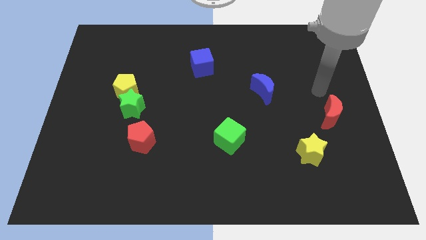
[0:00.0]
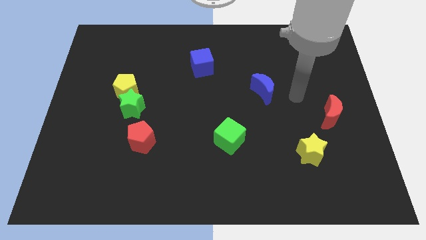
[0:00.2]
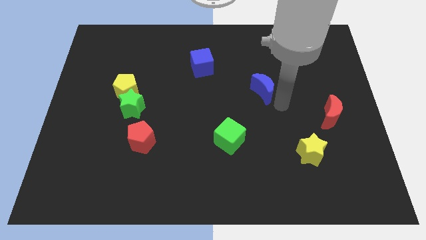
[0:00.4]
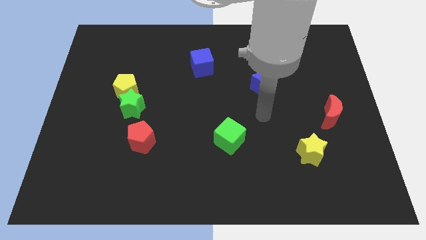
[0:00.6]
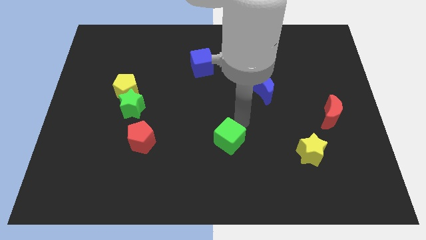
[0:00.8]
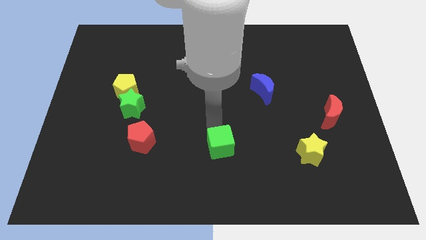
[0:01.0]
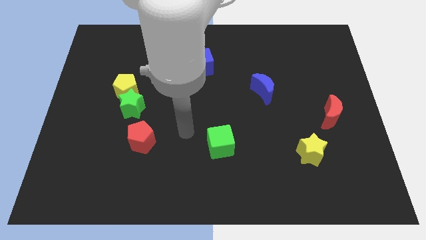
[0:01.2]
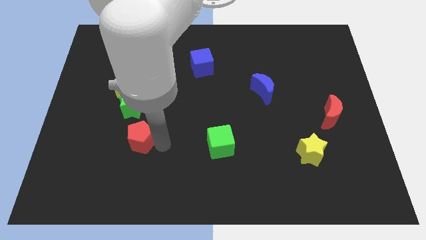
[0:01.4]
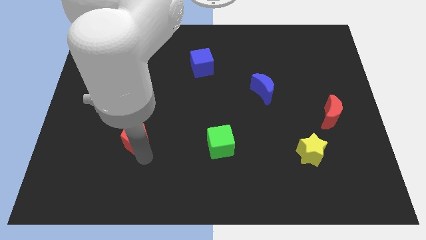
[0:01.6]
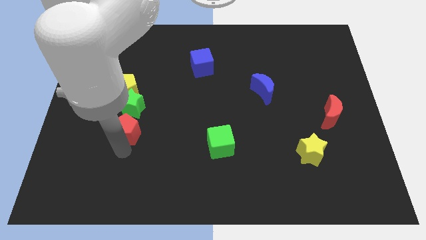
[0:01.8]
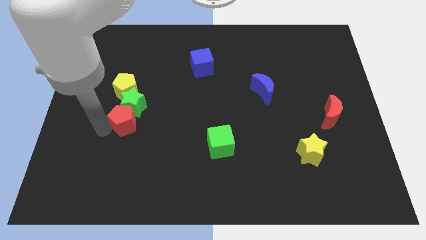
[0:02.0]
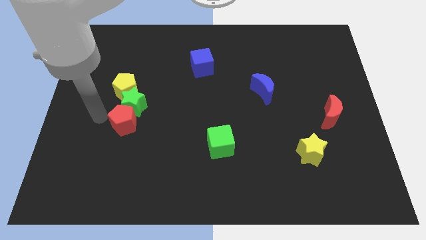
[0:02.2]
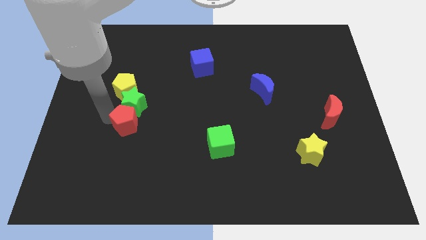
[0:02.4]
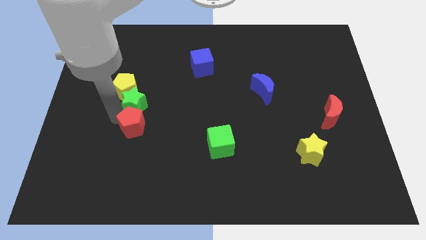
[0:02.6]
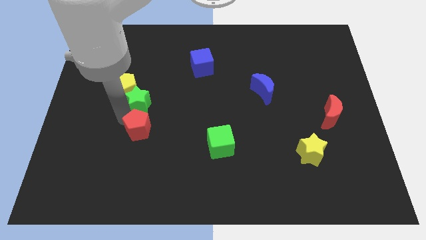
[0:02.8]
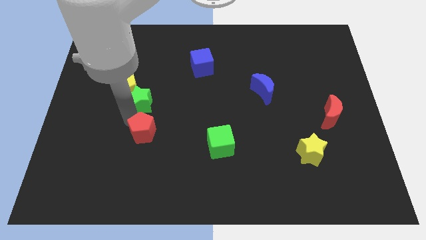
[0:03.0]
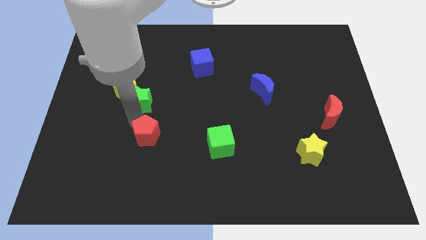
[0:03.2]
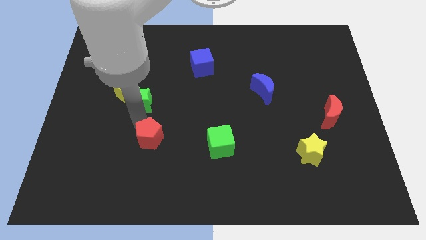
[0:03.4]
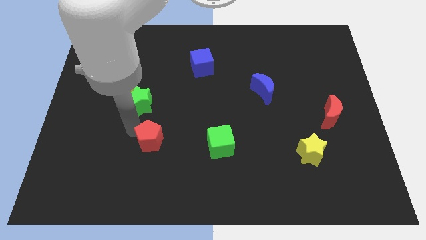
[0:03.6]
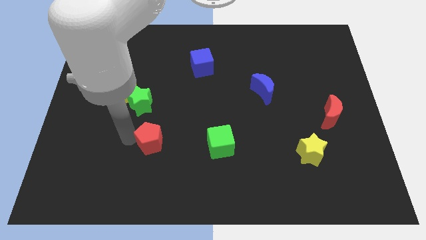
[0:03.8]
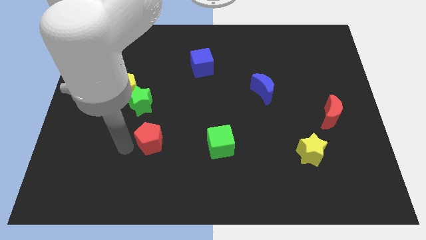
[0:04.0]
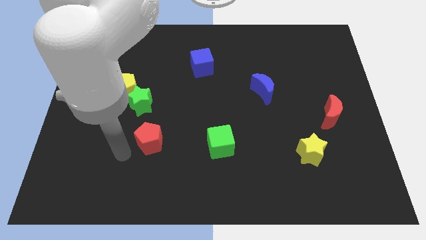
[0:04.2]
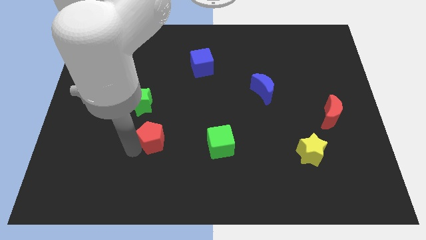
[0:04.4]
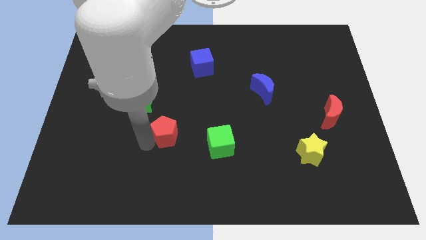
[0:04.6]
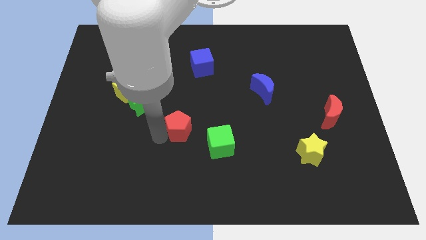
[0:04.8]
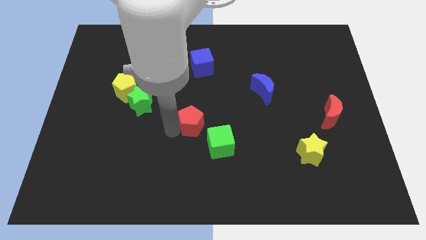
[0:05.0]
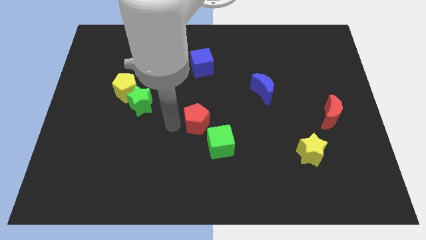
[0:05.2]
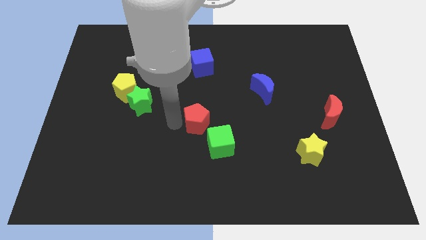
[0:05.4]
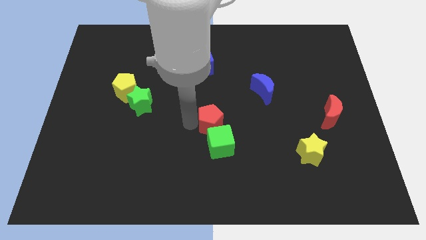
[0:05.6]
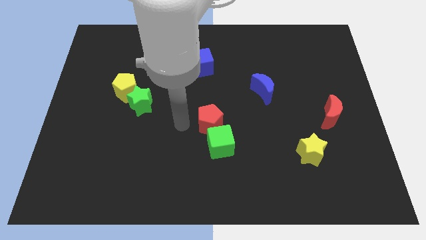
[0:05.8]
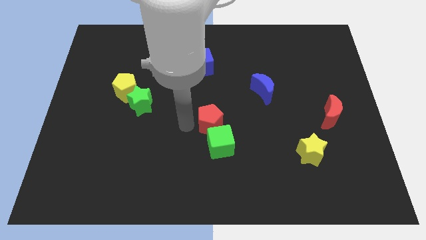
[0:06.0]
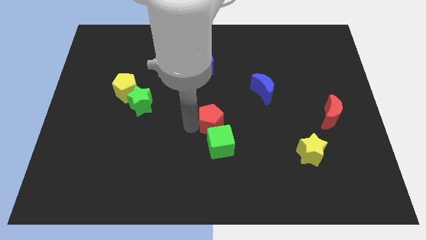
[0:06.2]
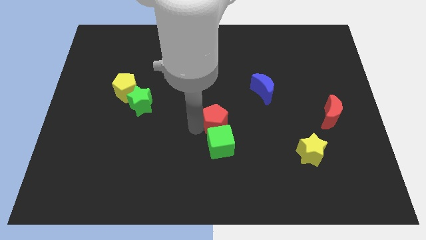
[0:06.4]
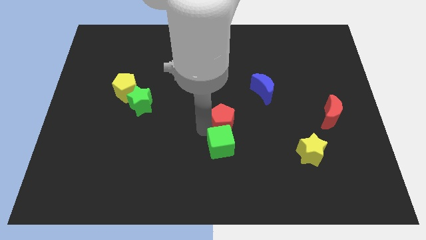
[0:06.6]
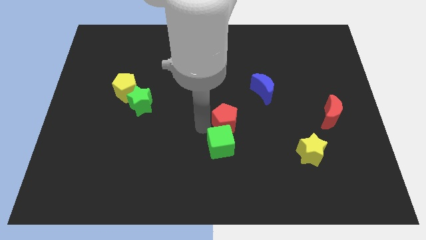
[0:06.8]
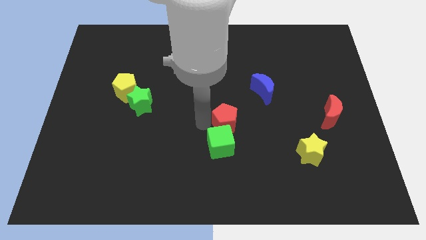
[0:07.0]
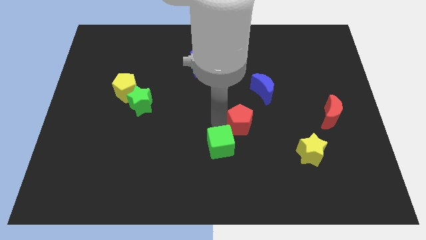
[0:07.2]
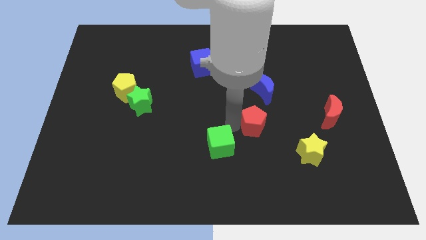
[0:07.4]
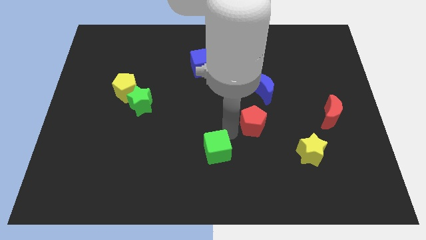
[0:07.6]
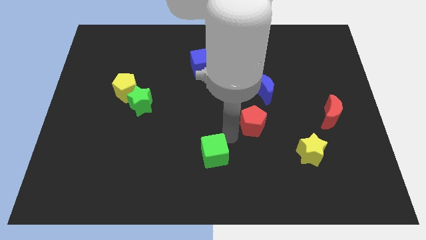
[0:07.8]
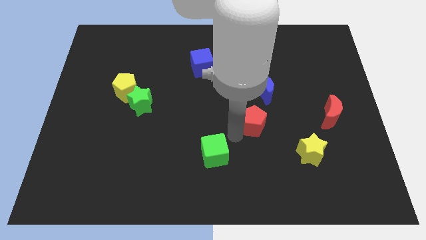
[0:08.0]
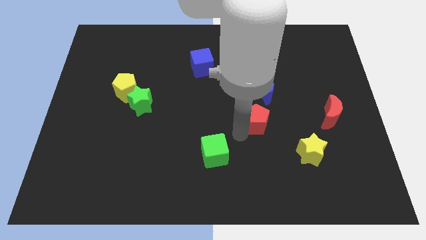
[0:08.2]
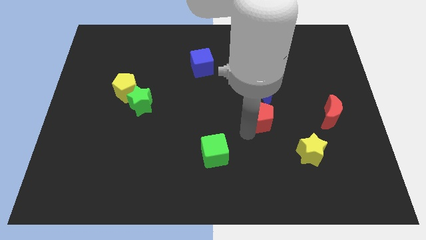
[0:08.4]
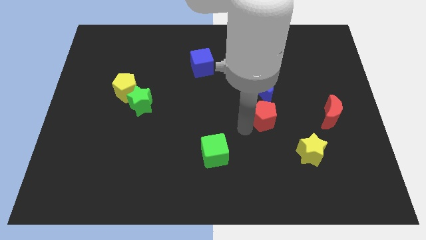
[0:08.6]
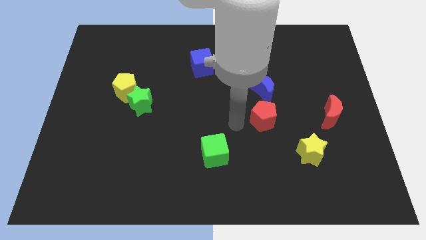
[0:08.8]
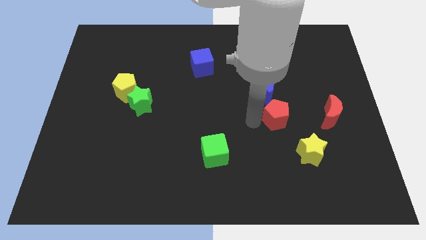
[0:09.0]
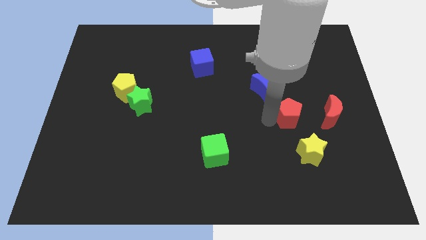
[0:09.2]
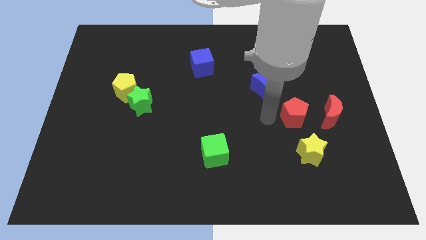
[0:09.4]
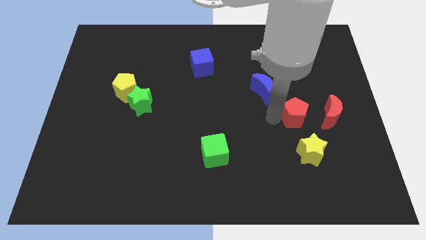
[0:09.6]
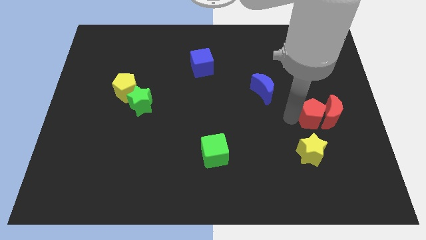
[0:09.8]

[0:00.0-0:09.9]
move the red pentagon close to the red moon

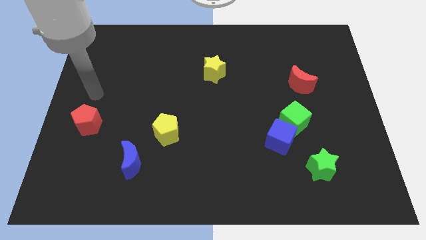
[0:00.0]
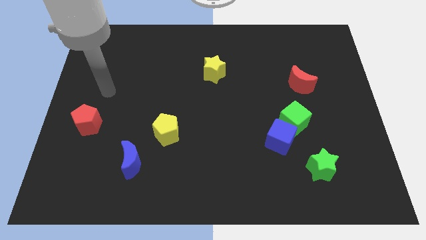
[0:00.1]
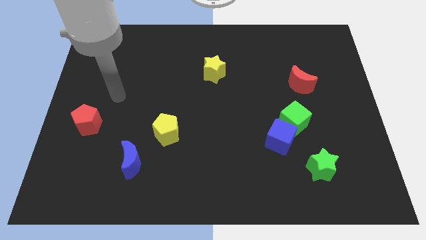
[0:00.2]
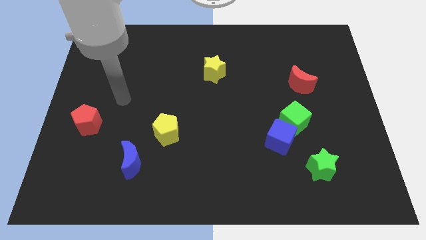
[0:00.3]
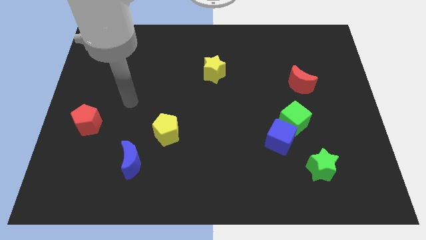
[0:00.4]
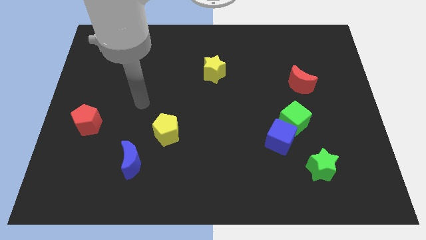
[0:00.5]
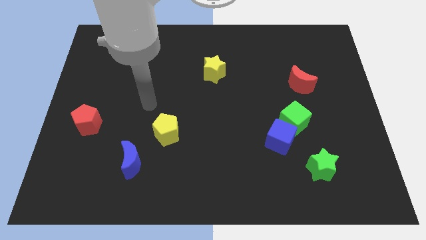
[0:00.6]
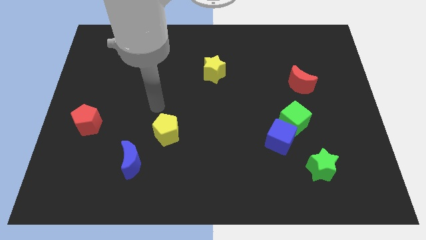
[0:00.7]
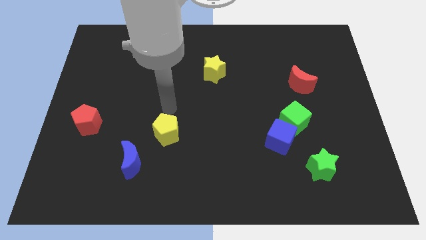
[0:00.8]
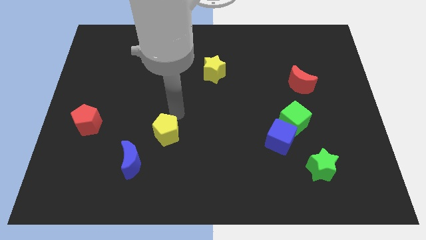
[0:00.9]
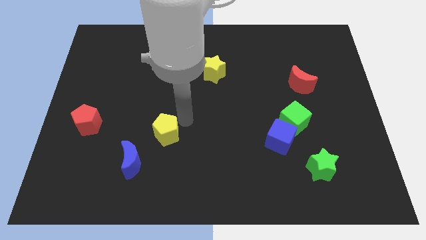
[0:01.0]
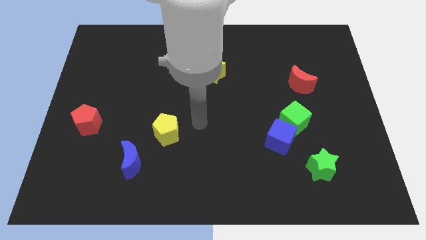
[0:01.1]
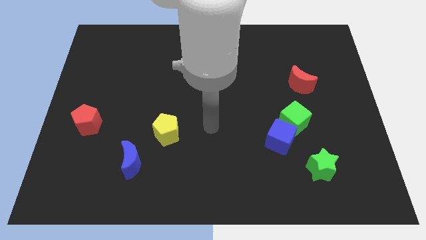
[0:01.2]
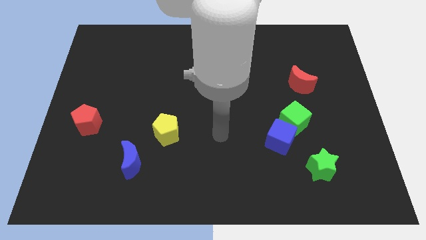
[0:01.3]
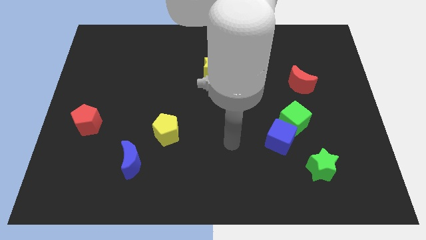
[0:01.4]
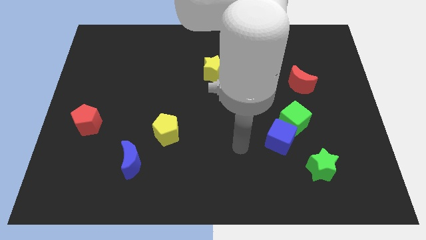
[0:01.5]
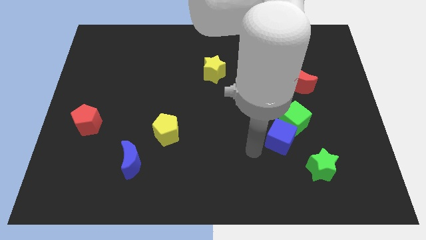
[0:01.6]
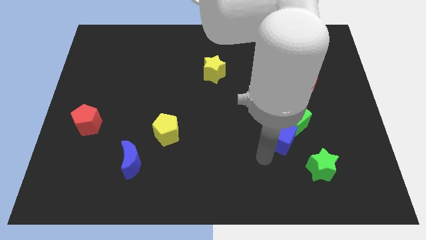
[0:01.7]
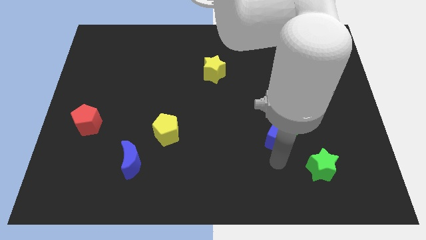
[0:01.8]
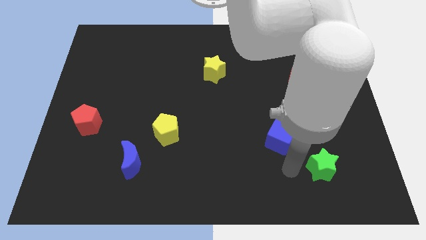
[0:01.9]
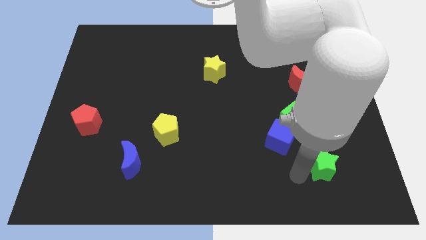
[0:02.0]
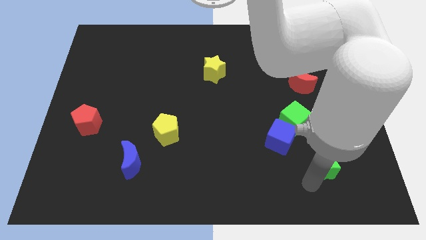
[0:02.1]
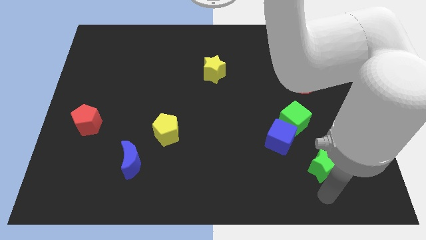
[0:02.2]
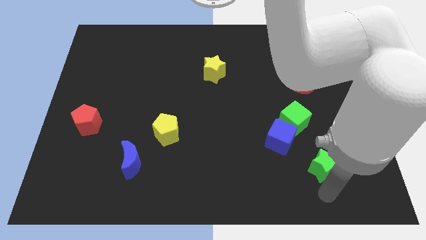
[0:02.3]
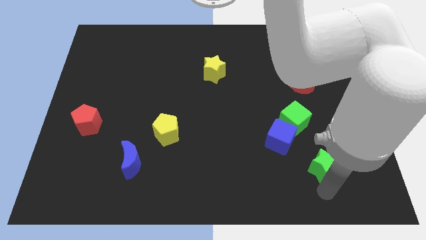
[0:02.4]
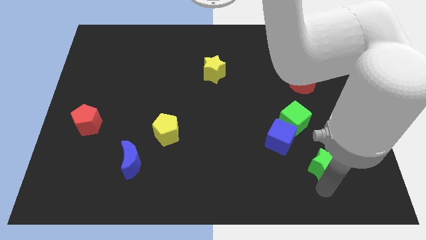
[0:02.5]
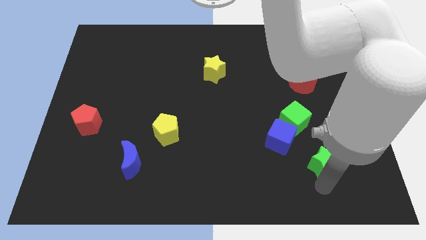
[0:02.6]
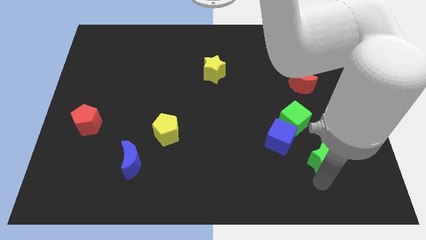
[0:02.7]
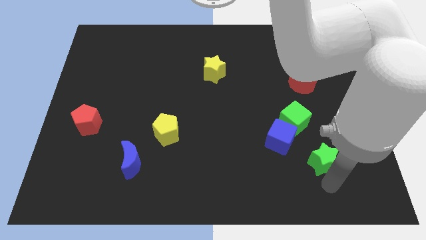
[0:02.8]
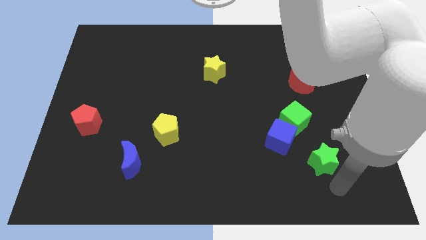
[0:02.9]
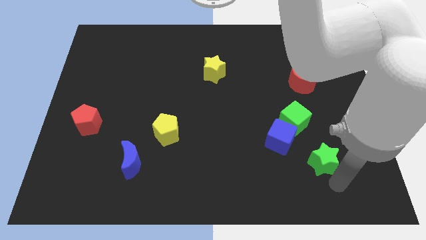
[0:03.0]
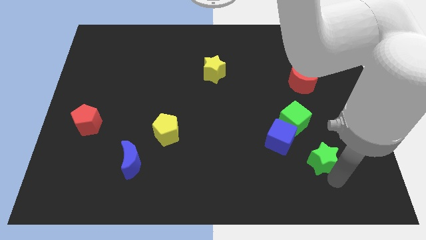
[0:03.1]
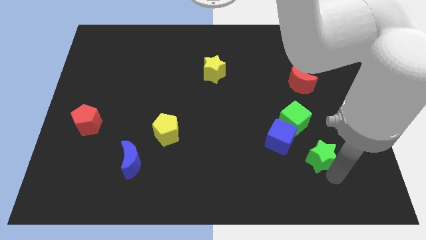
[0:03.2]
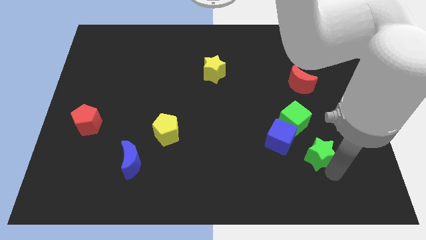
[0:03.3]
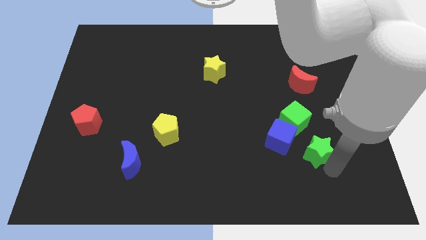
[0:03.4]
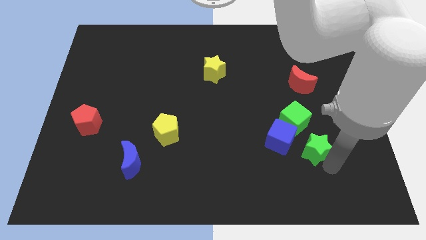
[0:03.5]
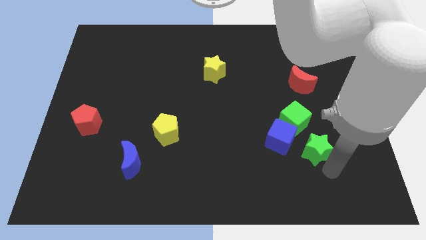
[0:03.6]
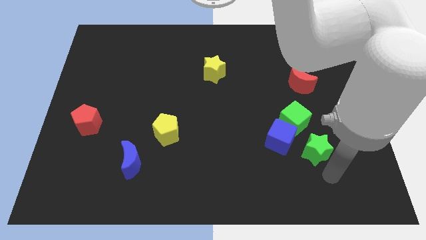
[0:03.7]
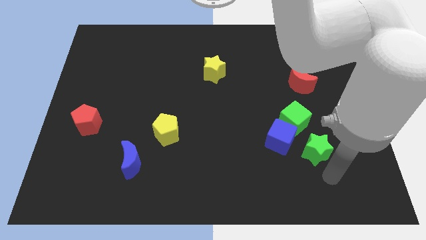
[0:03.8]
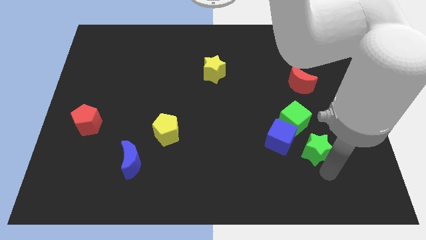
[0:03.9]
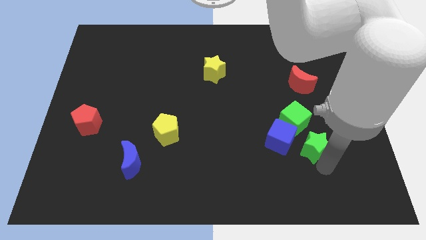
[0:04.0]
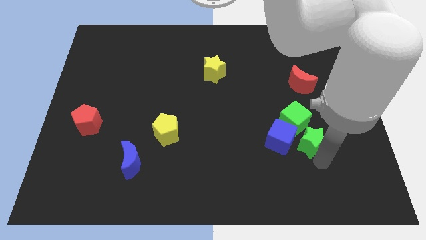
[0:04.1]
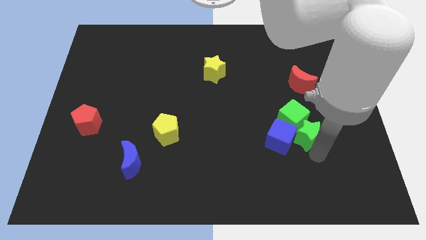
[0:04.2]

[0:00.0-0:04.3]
push the green star to the green cube
